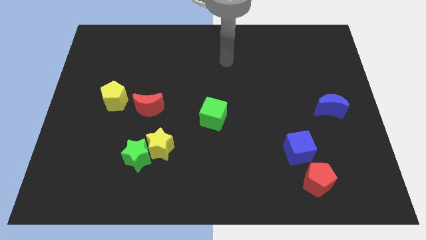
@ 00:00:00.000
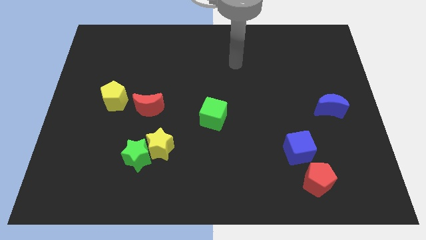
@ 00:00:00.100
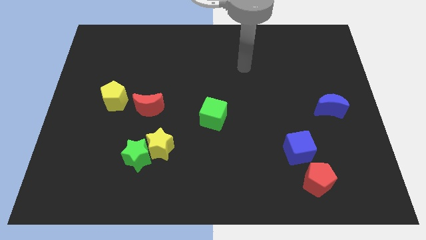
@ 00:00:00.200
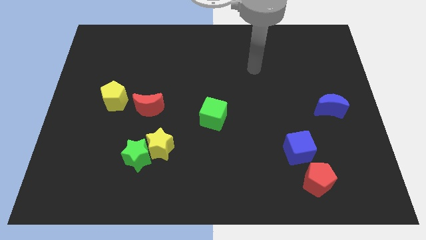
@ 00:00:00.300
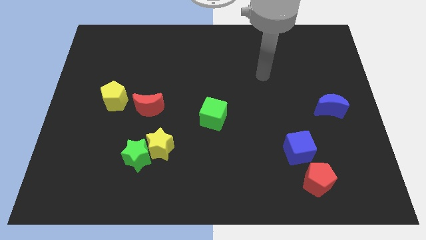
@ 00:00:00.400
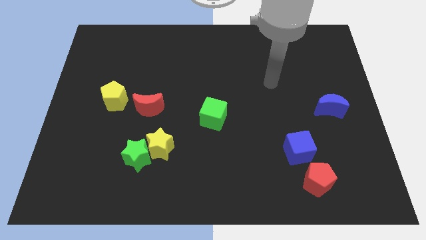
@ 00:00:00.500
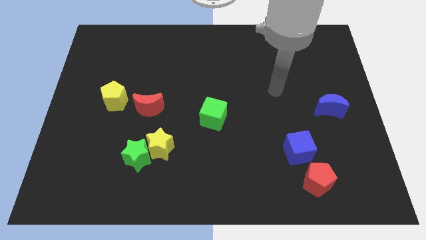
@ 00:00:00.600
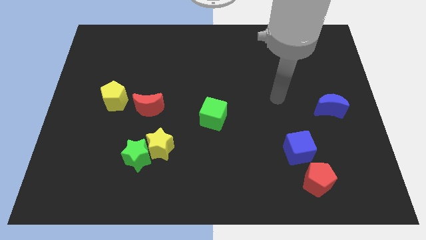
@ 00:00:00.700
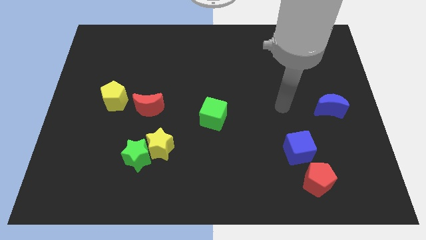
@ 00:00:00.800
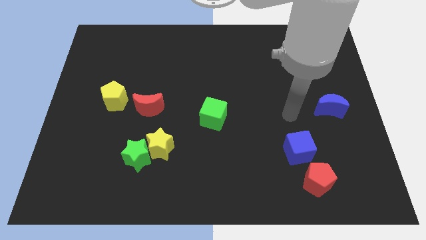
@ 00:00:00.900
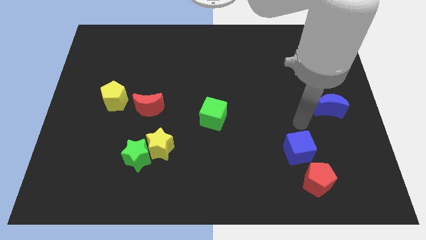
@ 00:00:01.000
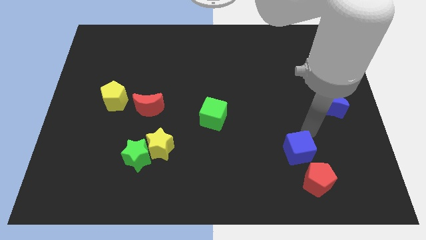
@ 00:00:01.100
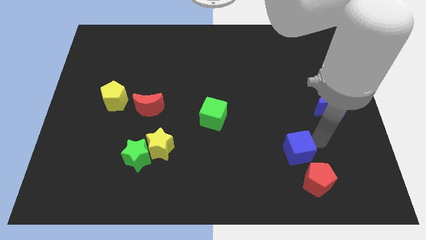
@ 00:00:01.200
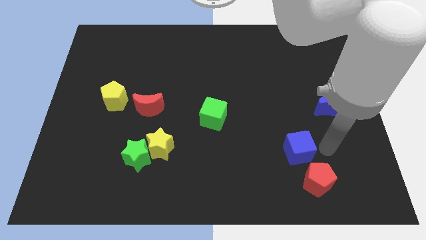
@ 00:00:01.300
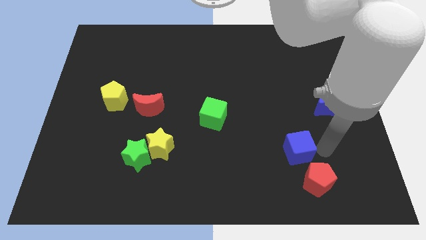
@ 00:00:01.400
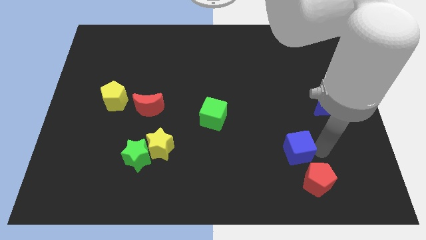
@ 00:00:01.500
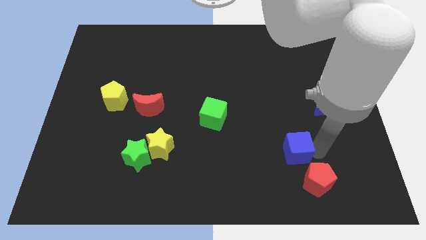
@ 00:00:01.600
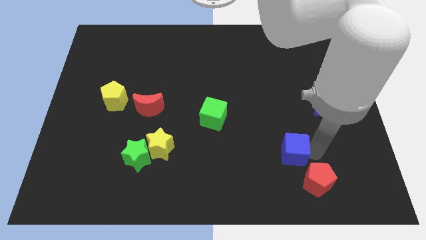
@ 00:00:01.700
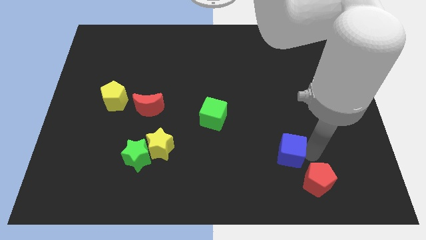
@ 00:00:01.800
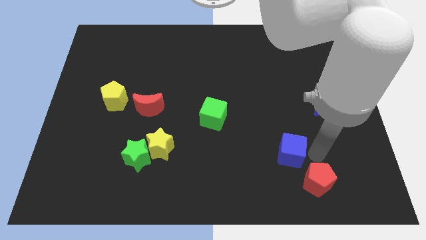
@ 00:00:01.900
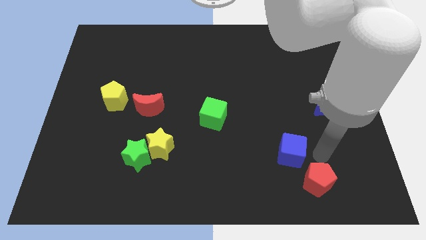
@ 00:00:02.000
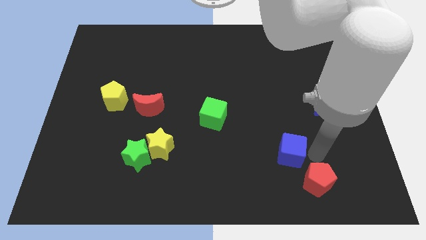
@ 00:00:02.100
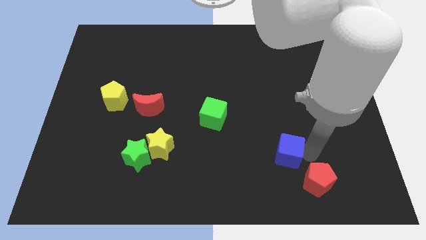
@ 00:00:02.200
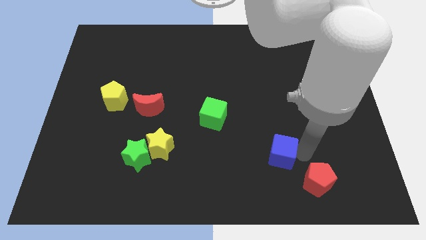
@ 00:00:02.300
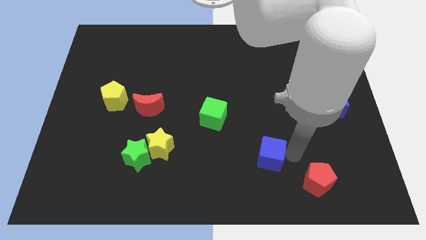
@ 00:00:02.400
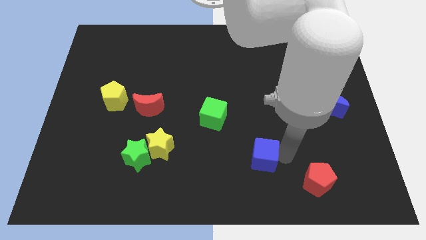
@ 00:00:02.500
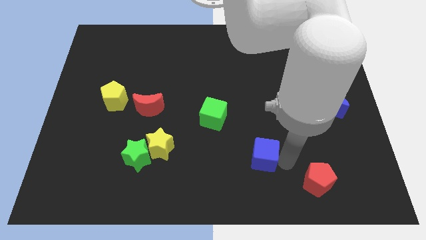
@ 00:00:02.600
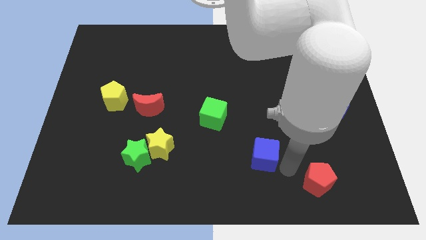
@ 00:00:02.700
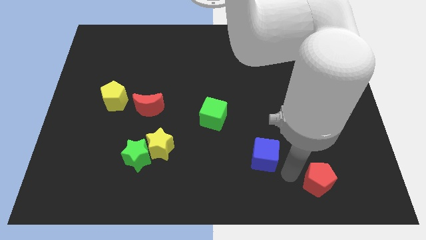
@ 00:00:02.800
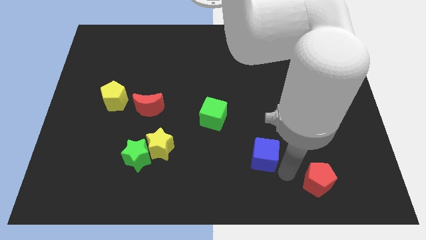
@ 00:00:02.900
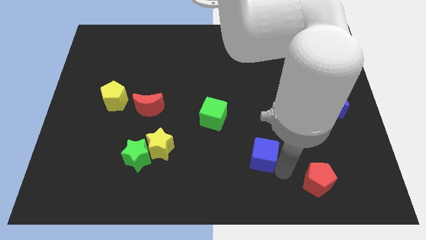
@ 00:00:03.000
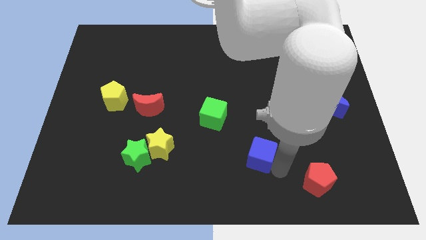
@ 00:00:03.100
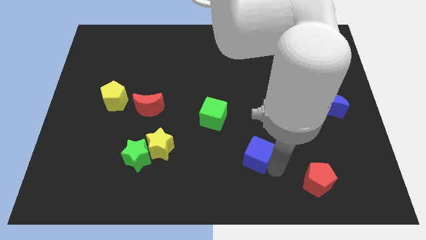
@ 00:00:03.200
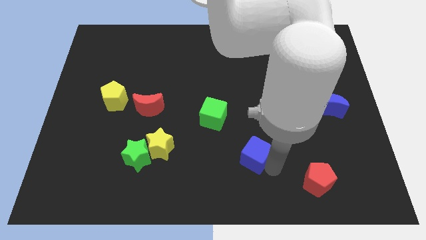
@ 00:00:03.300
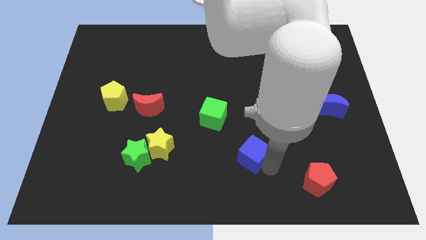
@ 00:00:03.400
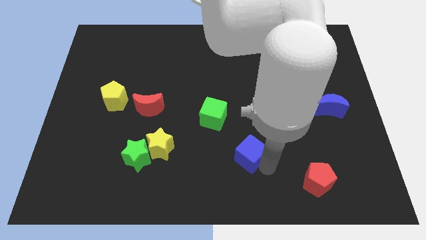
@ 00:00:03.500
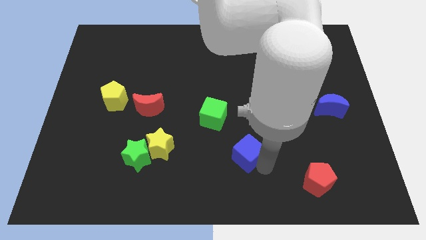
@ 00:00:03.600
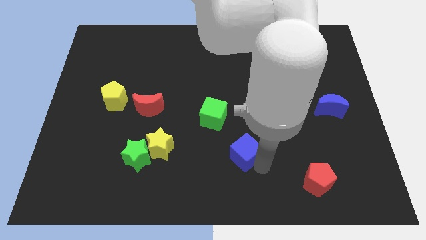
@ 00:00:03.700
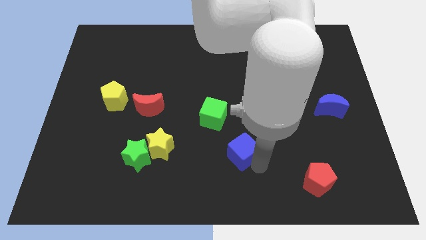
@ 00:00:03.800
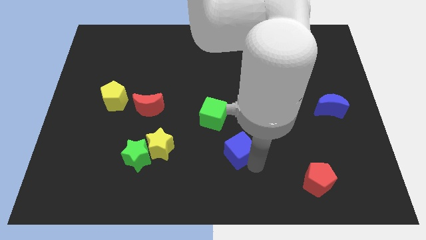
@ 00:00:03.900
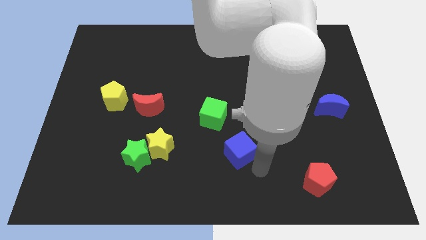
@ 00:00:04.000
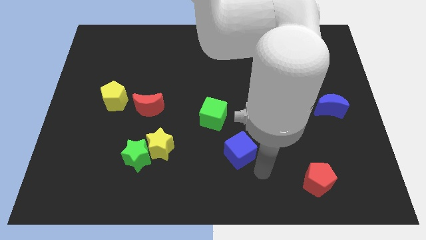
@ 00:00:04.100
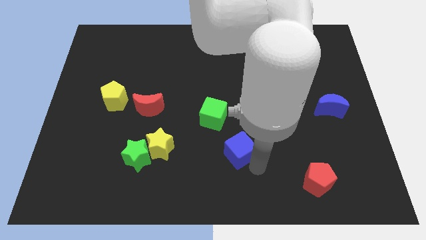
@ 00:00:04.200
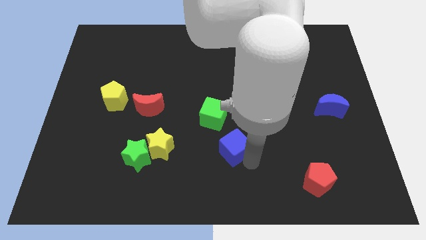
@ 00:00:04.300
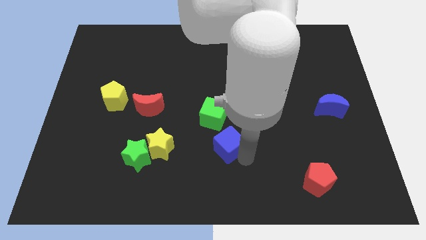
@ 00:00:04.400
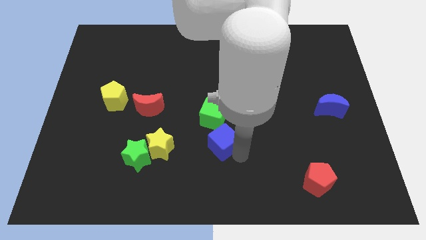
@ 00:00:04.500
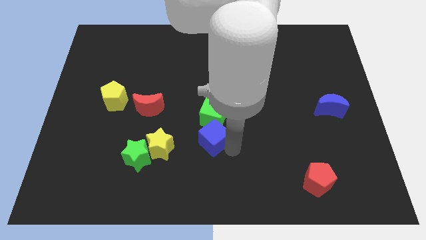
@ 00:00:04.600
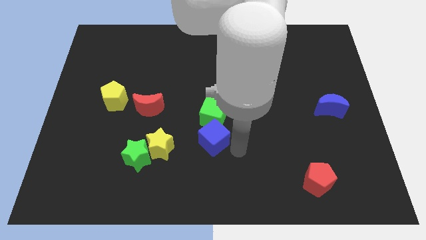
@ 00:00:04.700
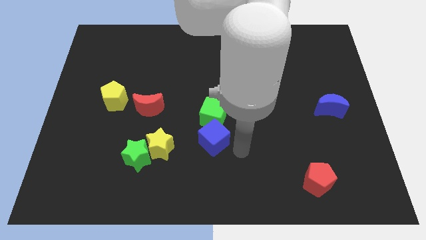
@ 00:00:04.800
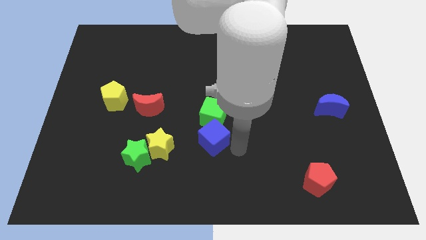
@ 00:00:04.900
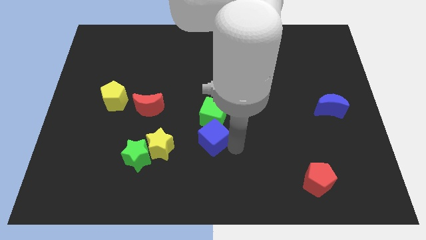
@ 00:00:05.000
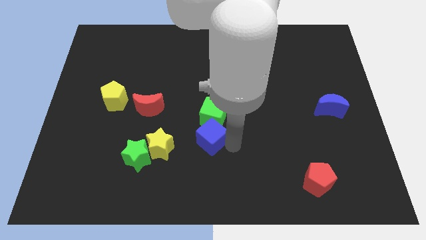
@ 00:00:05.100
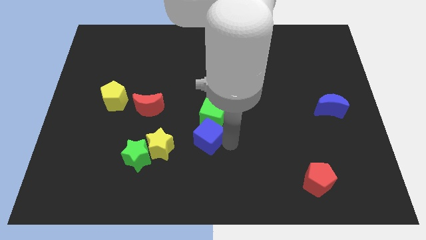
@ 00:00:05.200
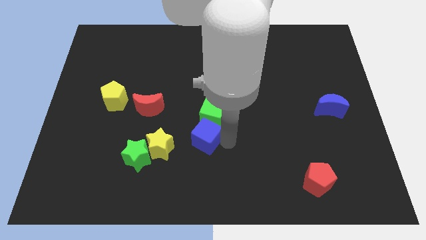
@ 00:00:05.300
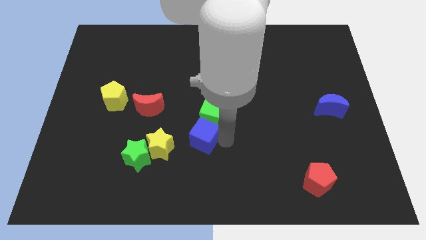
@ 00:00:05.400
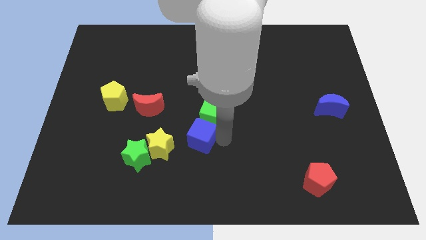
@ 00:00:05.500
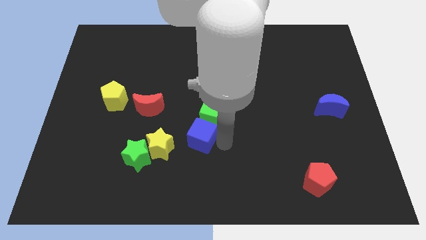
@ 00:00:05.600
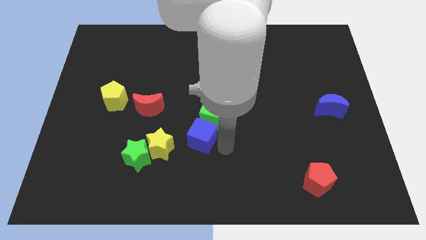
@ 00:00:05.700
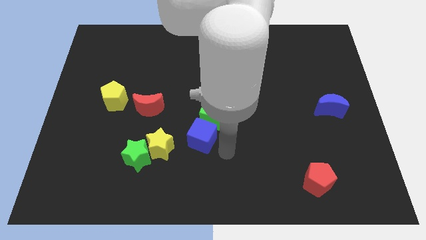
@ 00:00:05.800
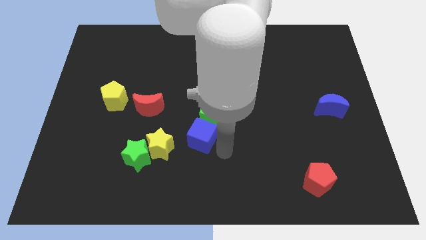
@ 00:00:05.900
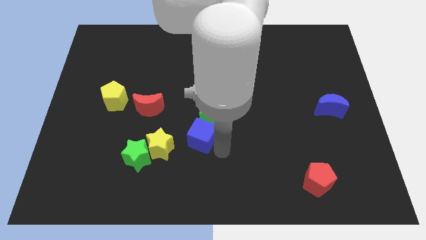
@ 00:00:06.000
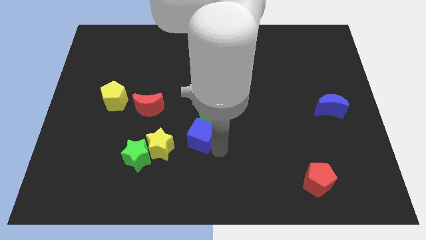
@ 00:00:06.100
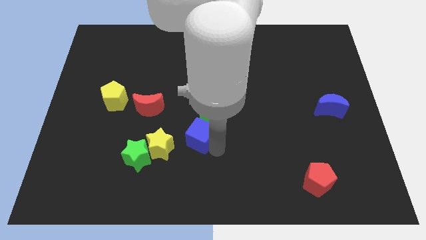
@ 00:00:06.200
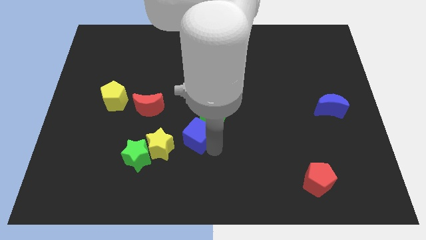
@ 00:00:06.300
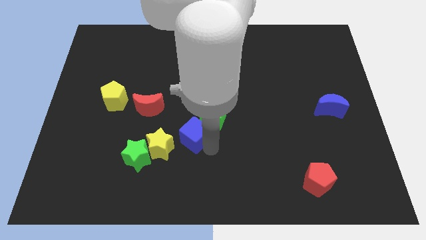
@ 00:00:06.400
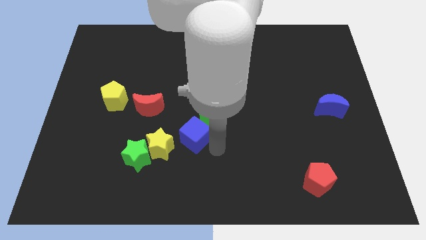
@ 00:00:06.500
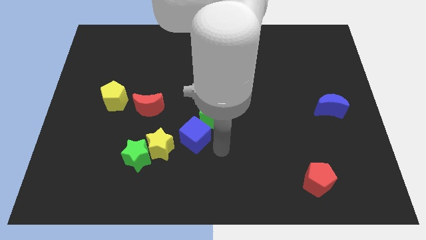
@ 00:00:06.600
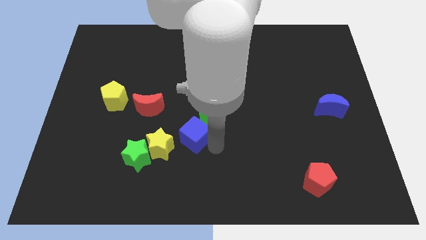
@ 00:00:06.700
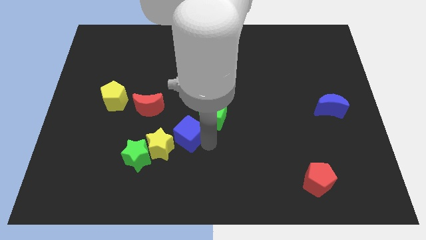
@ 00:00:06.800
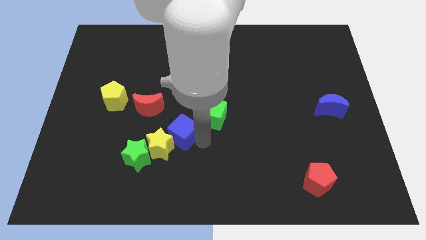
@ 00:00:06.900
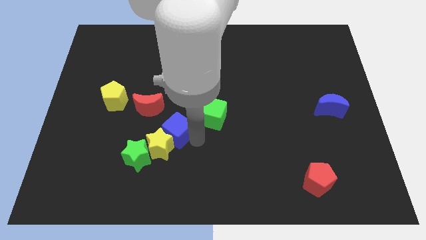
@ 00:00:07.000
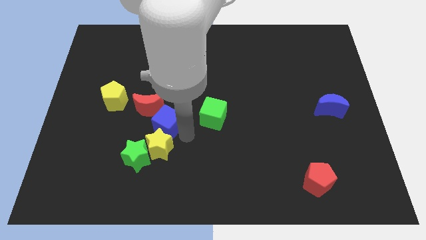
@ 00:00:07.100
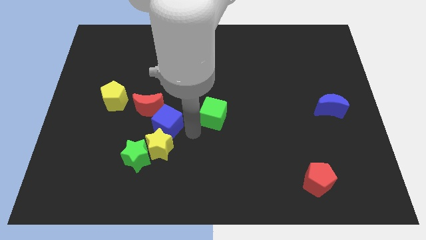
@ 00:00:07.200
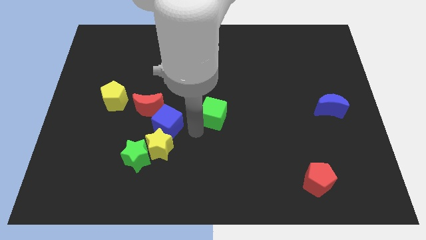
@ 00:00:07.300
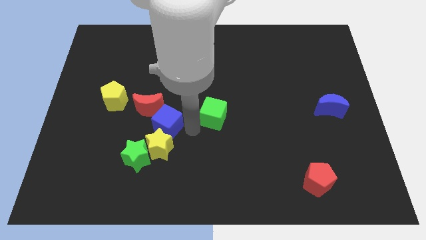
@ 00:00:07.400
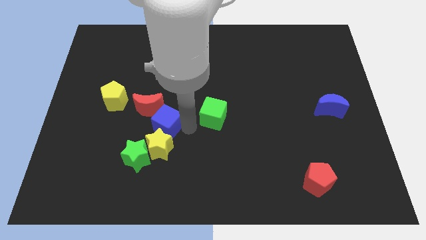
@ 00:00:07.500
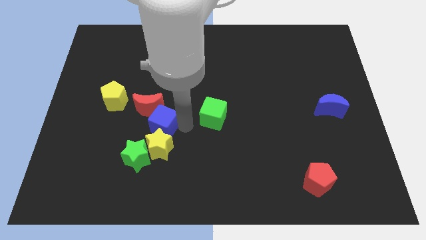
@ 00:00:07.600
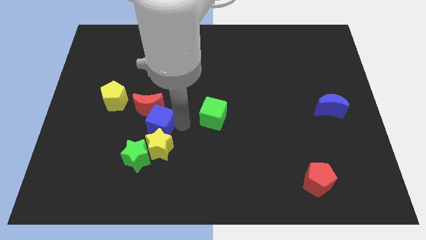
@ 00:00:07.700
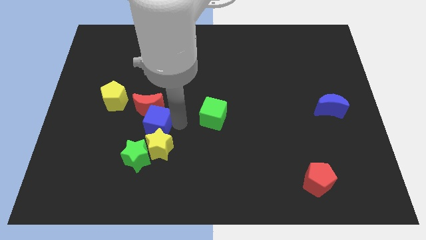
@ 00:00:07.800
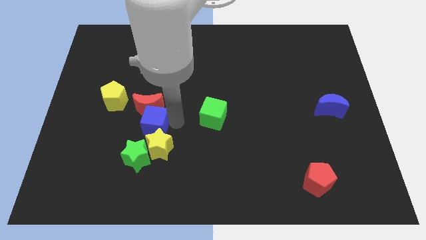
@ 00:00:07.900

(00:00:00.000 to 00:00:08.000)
move the blue cube to the bottom right side of the yellow pentagon
